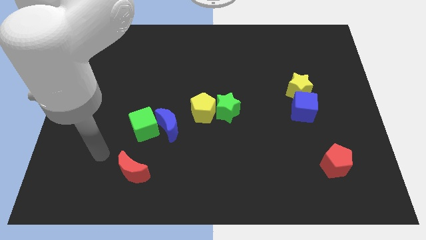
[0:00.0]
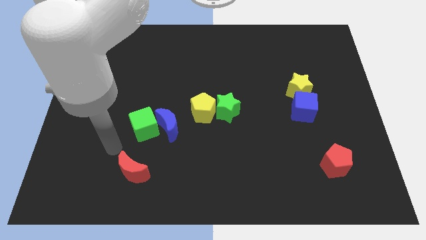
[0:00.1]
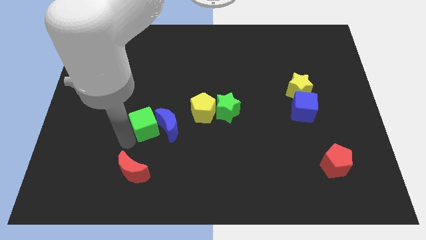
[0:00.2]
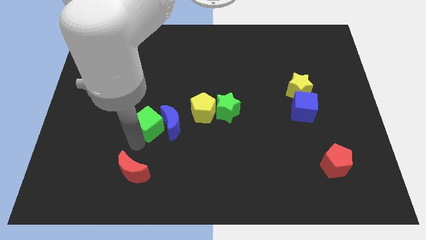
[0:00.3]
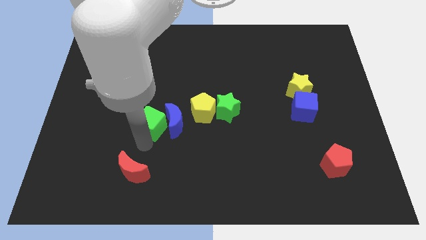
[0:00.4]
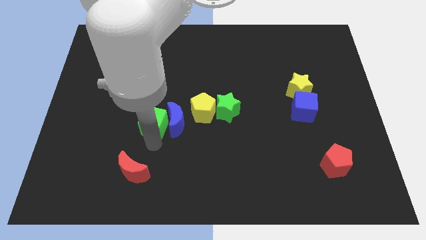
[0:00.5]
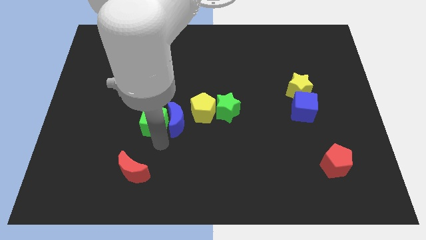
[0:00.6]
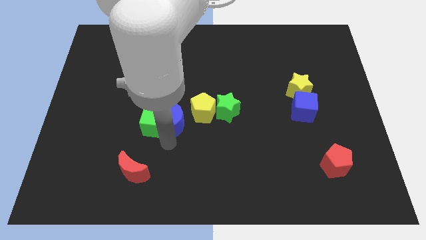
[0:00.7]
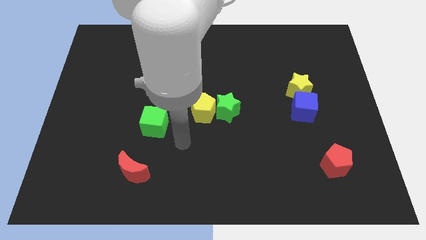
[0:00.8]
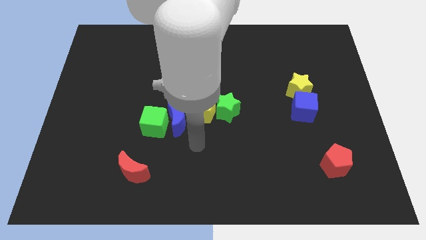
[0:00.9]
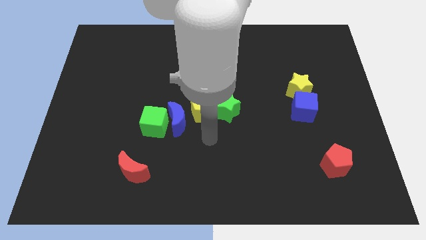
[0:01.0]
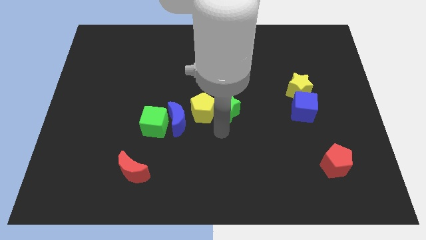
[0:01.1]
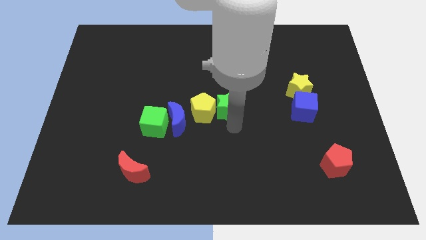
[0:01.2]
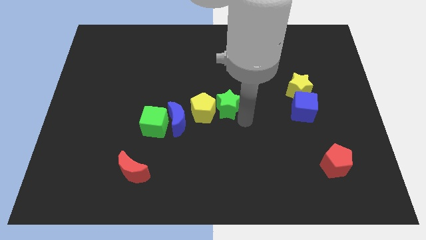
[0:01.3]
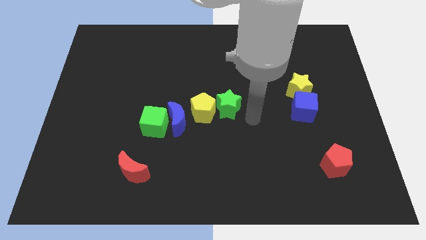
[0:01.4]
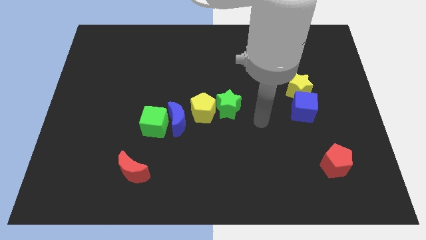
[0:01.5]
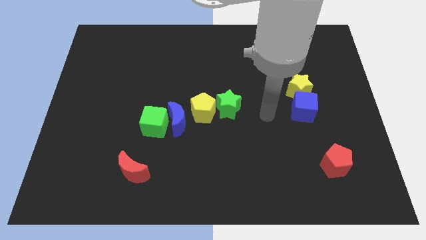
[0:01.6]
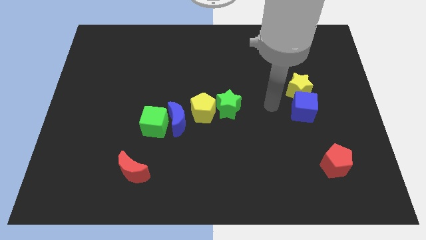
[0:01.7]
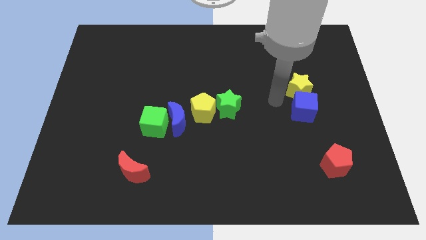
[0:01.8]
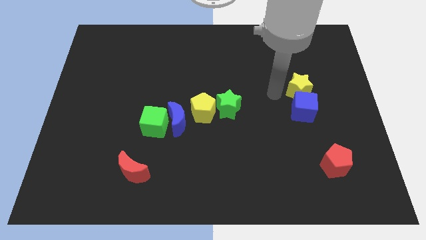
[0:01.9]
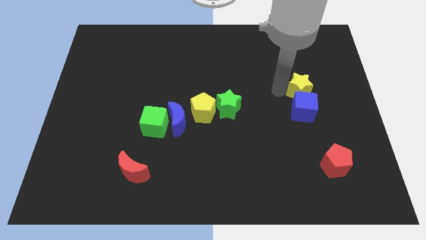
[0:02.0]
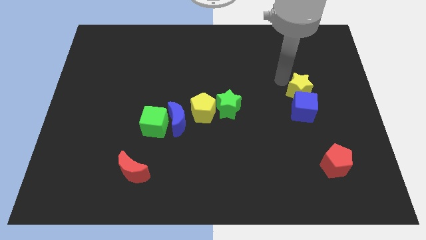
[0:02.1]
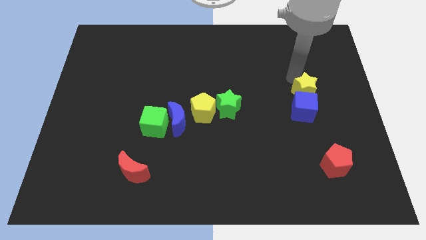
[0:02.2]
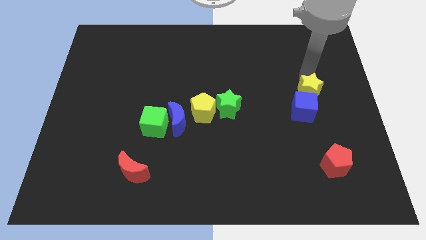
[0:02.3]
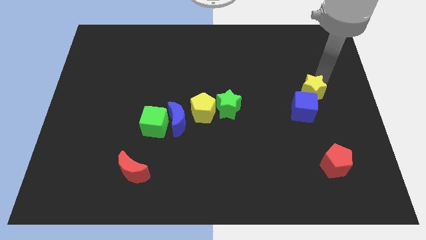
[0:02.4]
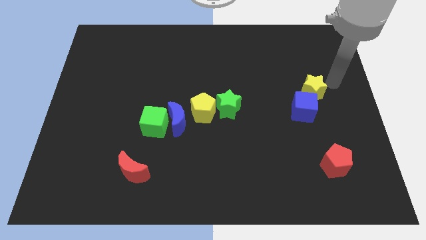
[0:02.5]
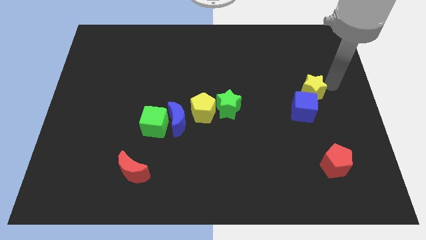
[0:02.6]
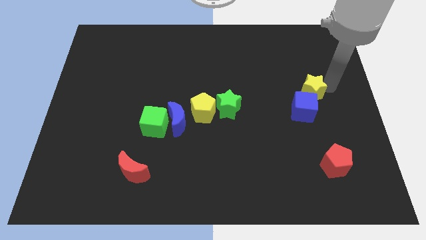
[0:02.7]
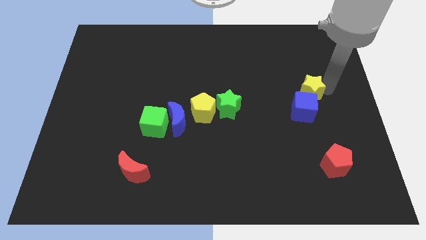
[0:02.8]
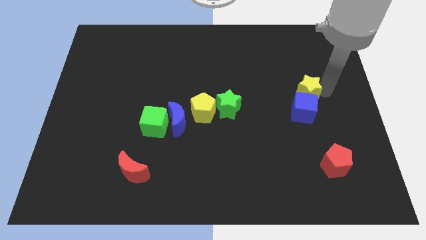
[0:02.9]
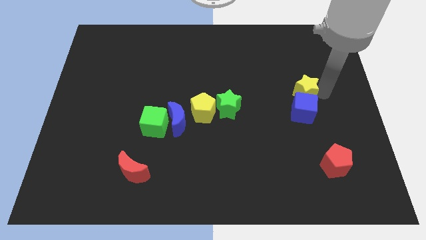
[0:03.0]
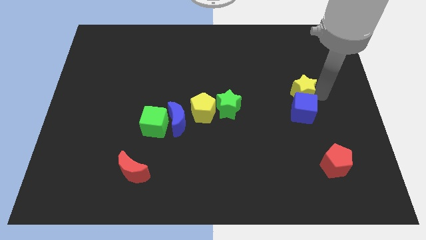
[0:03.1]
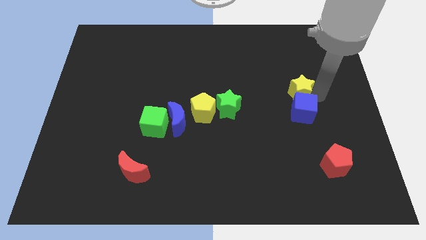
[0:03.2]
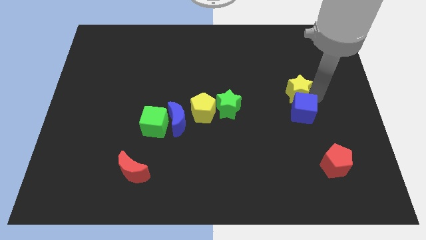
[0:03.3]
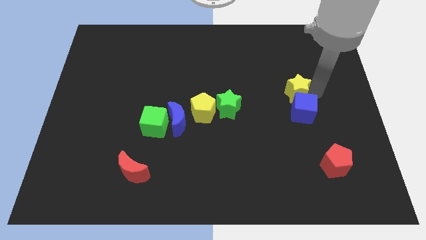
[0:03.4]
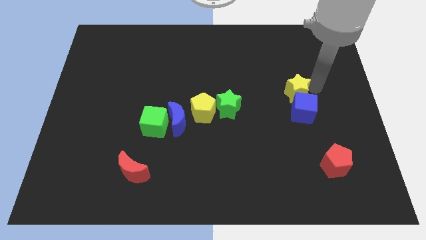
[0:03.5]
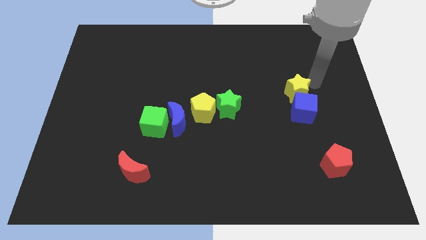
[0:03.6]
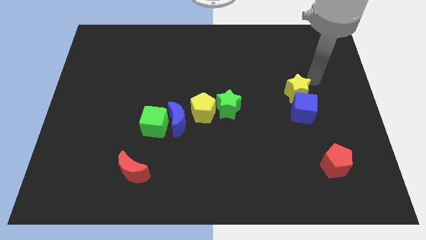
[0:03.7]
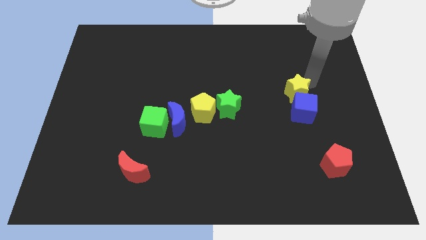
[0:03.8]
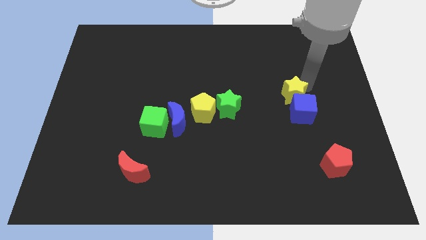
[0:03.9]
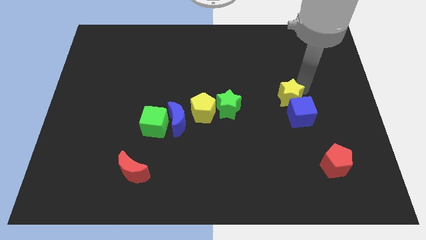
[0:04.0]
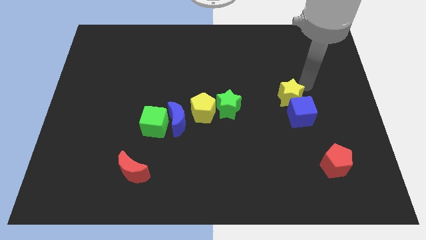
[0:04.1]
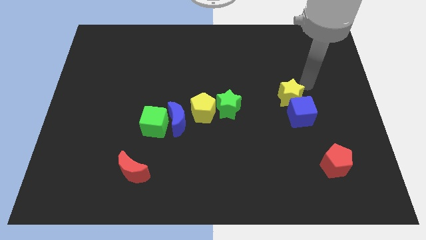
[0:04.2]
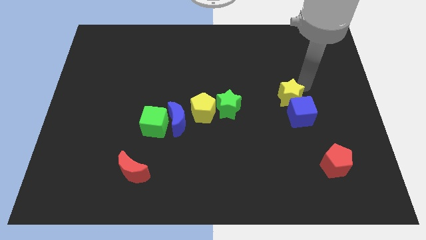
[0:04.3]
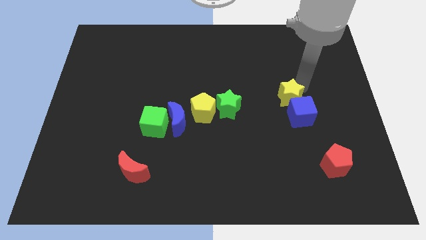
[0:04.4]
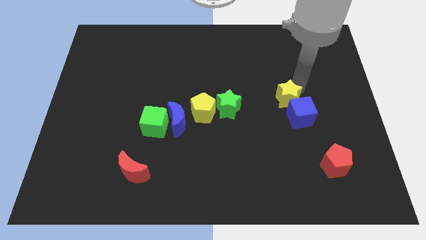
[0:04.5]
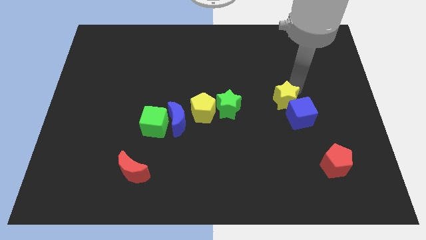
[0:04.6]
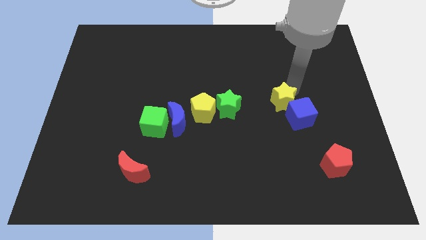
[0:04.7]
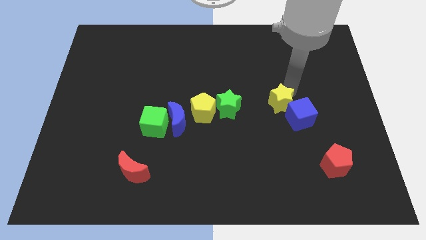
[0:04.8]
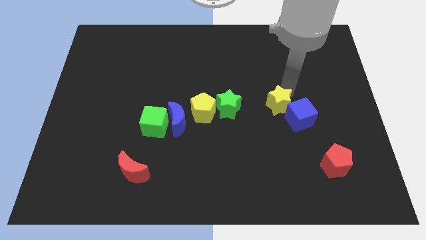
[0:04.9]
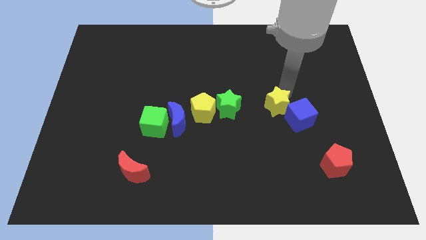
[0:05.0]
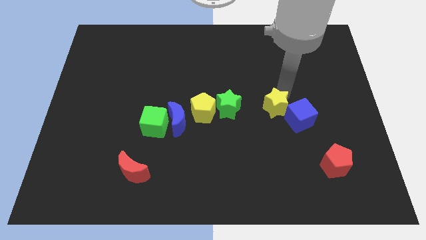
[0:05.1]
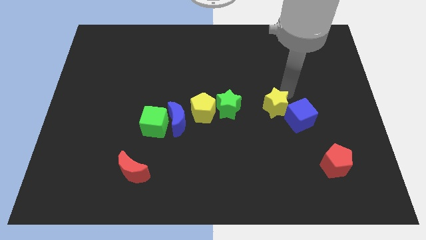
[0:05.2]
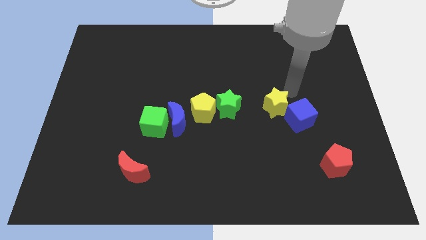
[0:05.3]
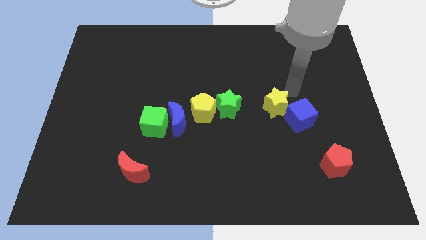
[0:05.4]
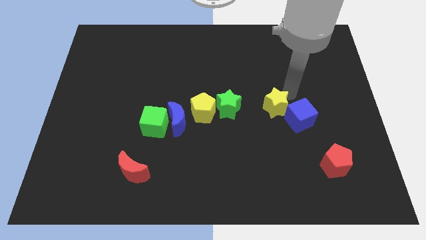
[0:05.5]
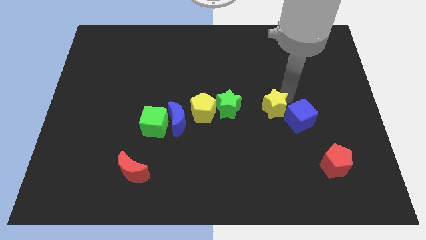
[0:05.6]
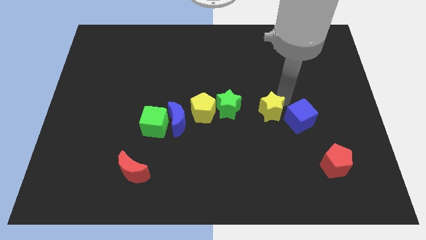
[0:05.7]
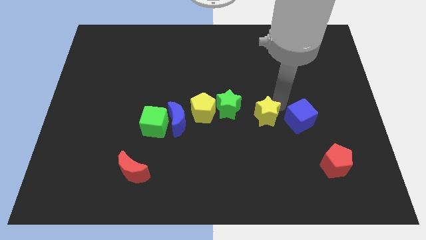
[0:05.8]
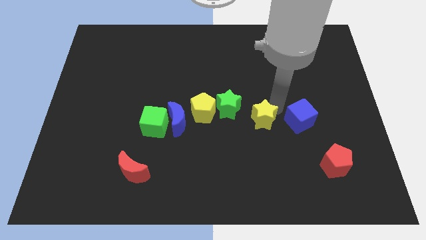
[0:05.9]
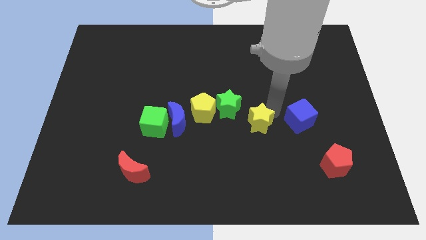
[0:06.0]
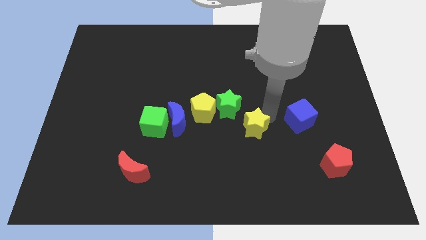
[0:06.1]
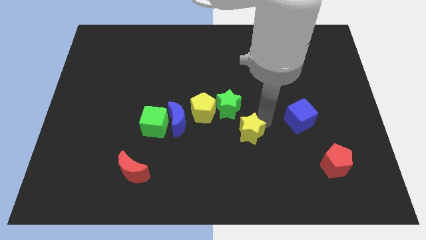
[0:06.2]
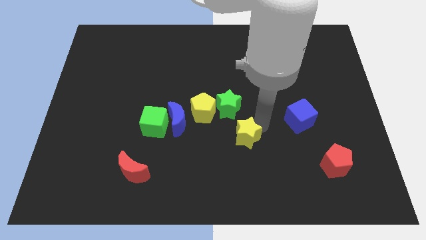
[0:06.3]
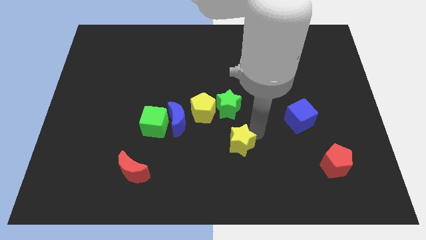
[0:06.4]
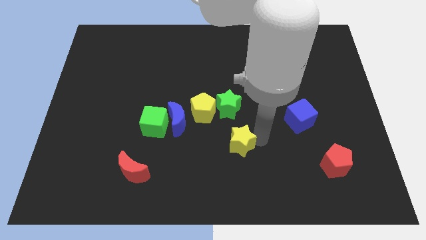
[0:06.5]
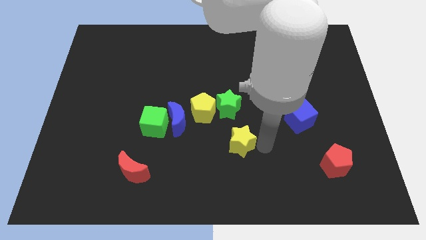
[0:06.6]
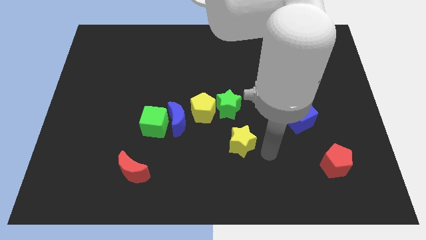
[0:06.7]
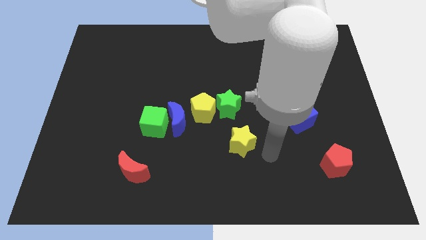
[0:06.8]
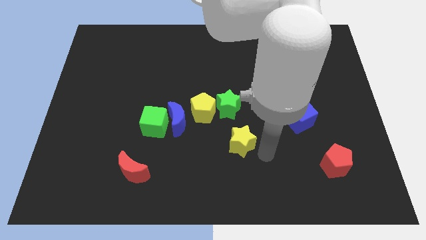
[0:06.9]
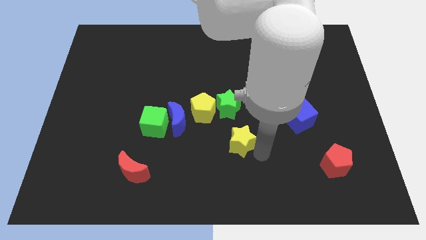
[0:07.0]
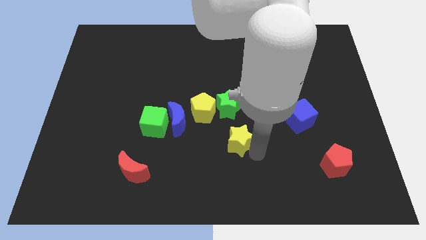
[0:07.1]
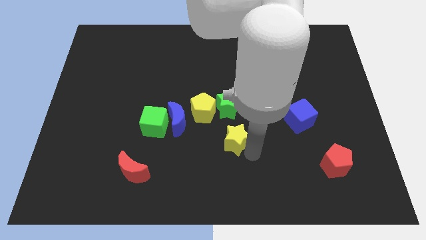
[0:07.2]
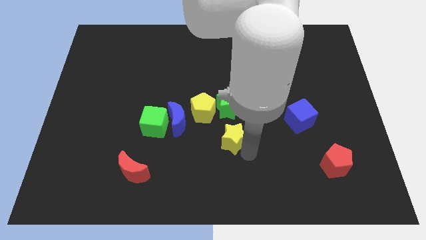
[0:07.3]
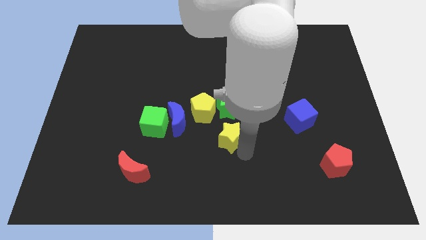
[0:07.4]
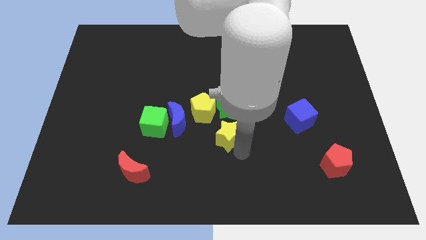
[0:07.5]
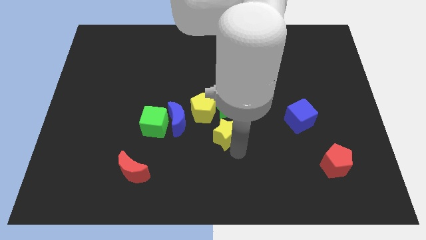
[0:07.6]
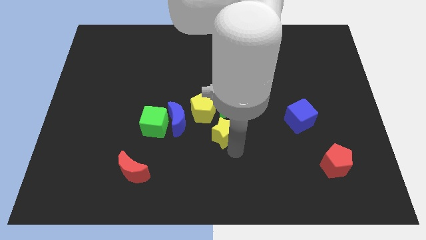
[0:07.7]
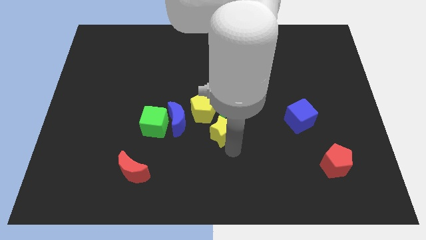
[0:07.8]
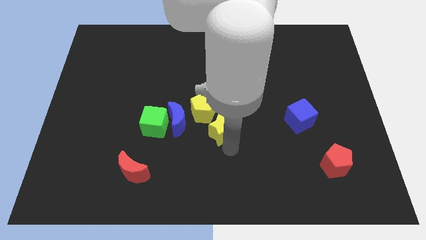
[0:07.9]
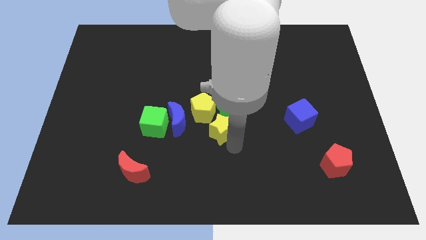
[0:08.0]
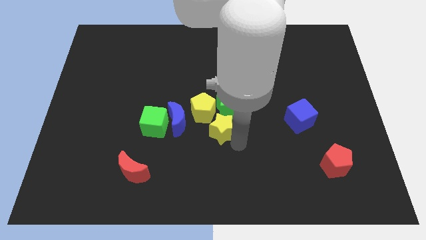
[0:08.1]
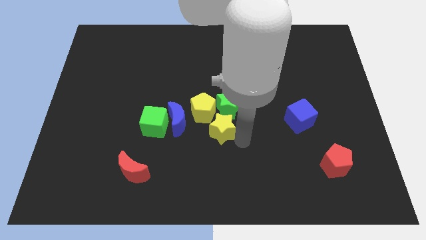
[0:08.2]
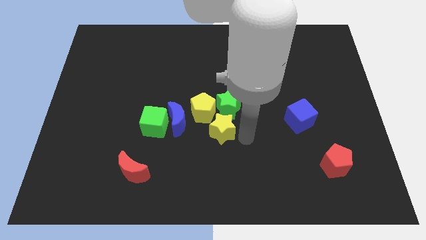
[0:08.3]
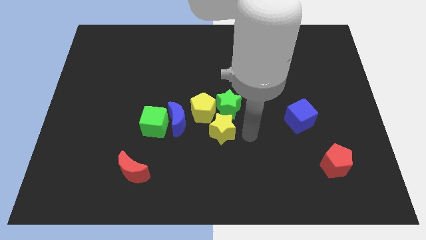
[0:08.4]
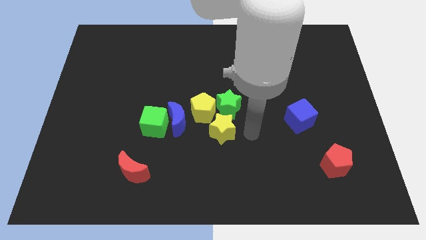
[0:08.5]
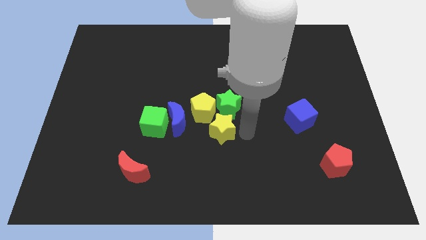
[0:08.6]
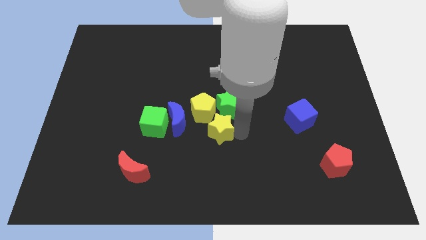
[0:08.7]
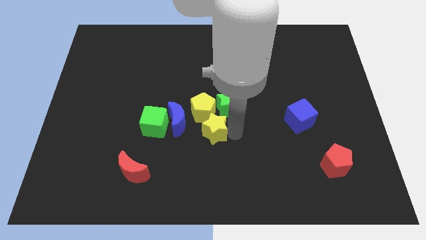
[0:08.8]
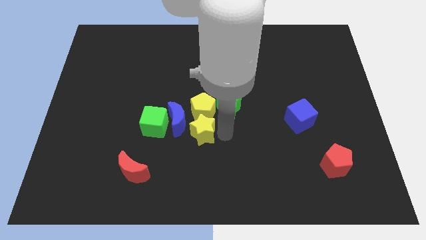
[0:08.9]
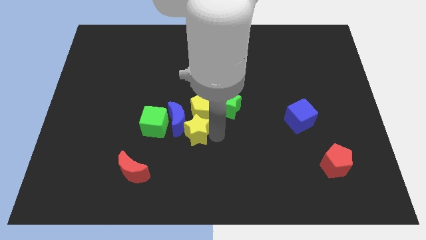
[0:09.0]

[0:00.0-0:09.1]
slide the yellow star close to the blue moon
